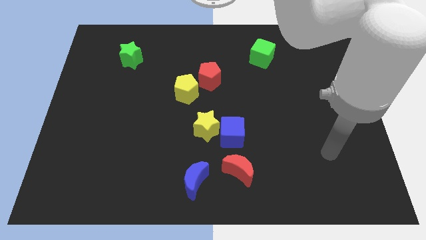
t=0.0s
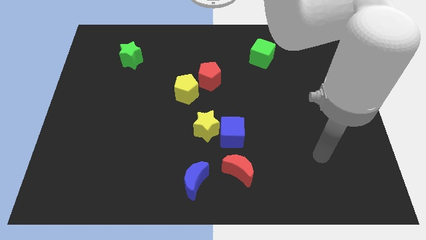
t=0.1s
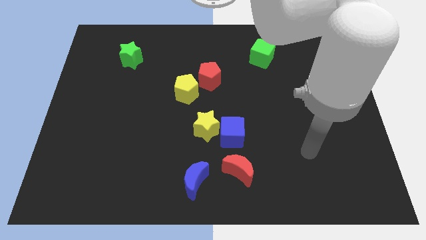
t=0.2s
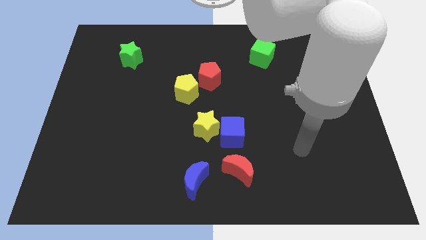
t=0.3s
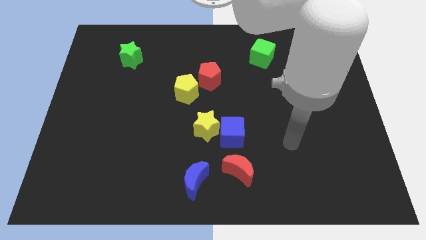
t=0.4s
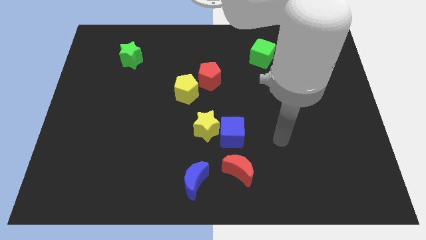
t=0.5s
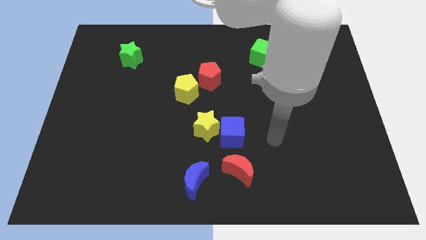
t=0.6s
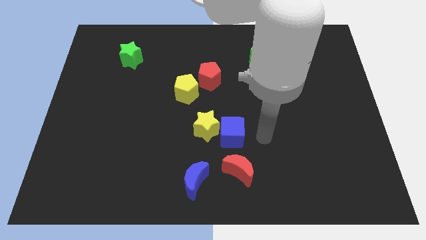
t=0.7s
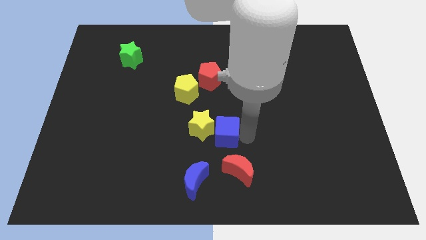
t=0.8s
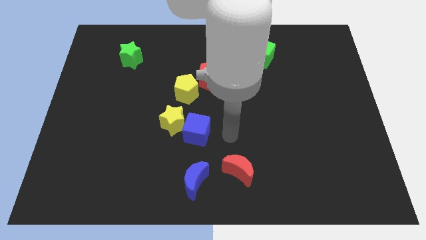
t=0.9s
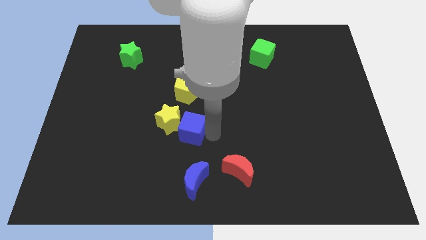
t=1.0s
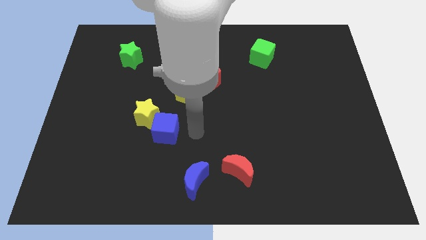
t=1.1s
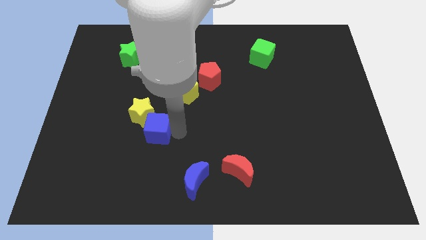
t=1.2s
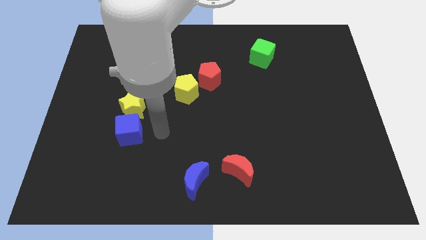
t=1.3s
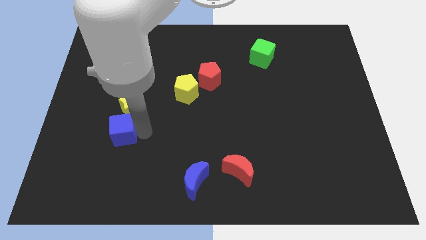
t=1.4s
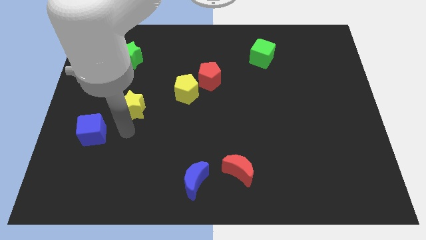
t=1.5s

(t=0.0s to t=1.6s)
move the yellow star away from the blue cube

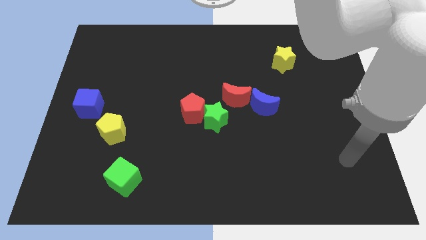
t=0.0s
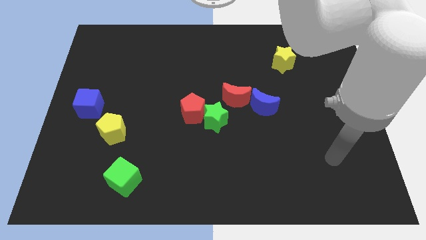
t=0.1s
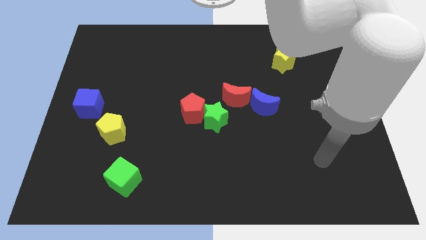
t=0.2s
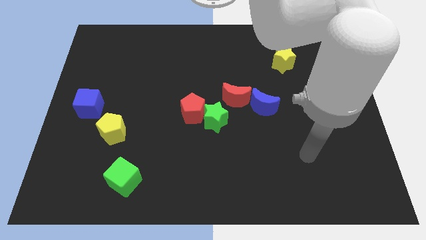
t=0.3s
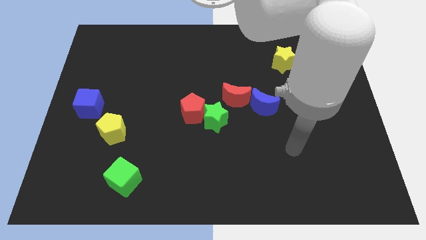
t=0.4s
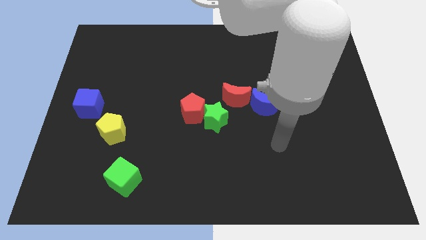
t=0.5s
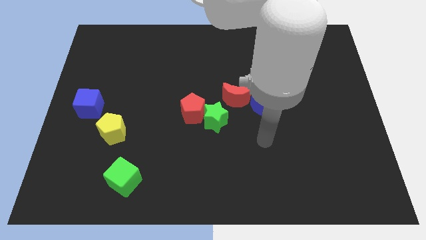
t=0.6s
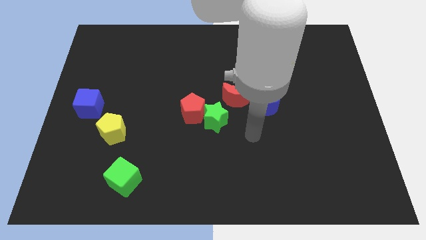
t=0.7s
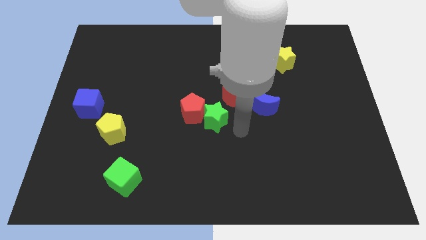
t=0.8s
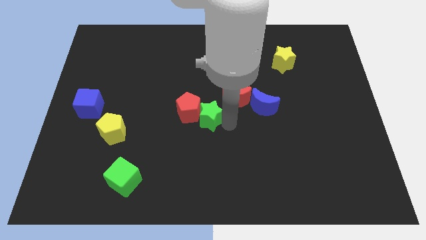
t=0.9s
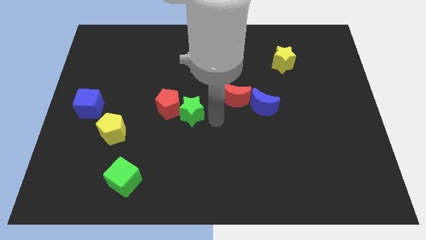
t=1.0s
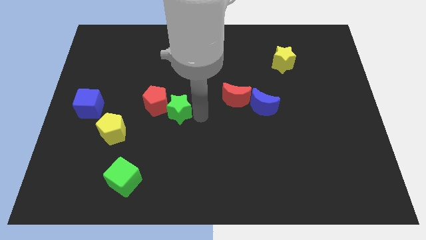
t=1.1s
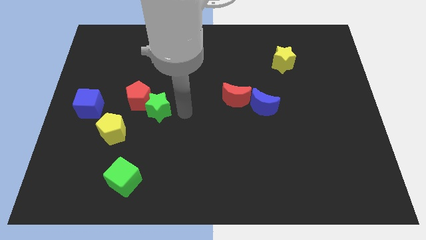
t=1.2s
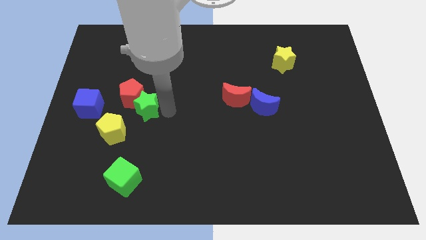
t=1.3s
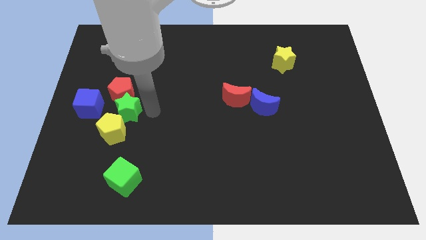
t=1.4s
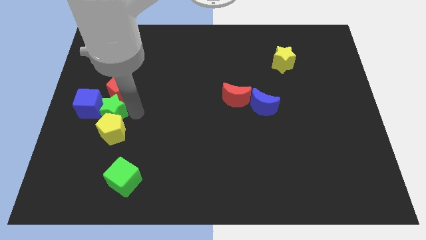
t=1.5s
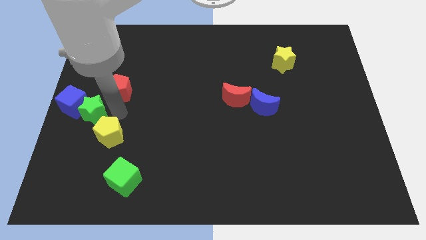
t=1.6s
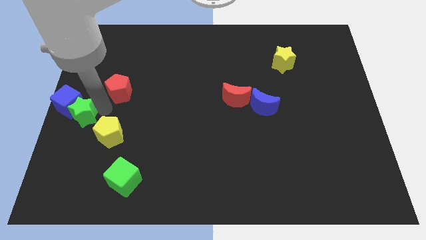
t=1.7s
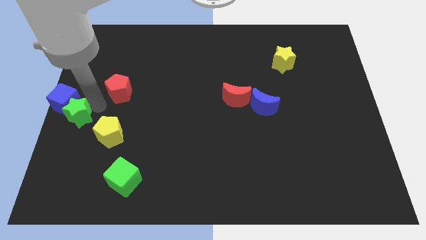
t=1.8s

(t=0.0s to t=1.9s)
move the red pentagon away from the green star

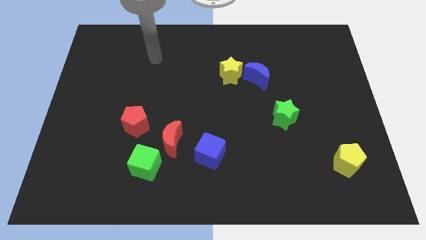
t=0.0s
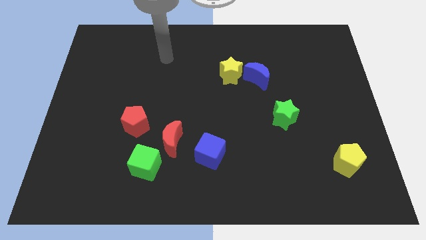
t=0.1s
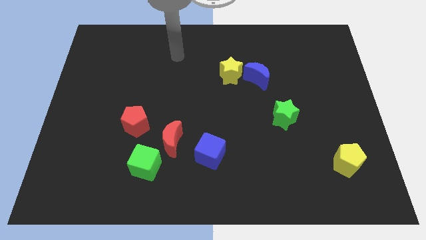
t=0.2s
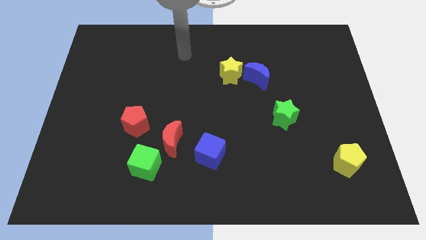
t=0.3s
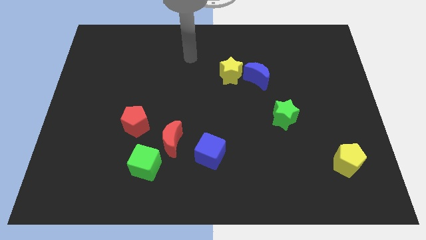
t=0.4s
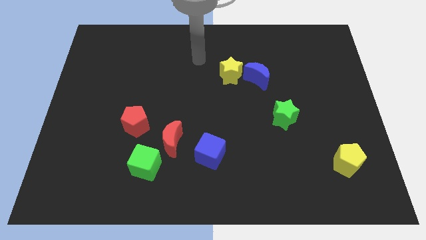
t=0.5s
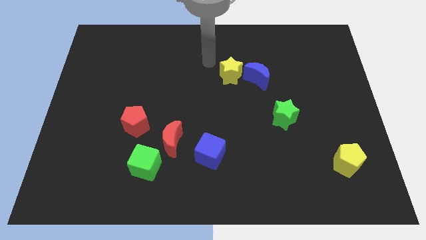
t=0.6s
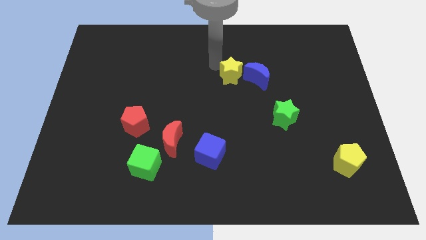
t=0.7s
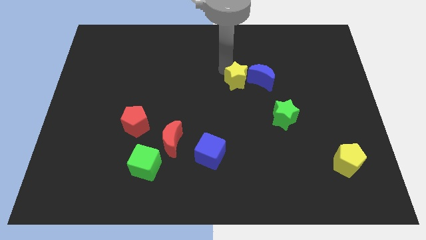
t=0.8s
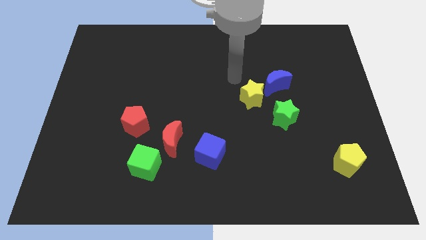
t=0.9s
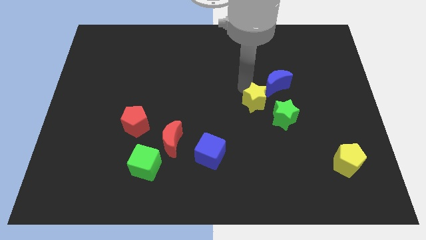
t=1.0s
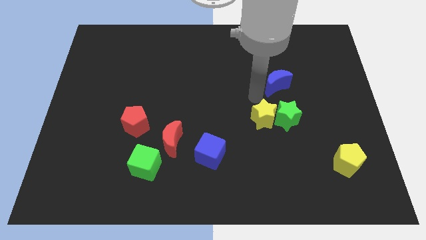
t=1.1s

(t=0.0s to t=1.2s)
move the blue moon away from the yellow star

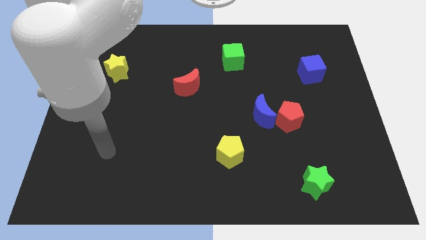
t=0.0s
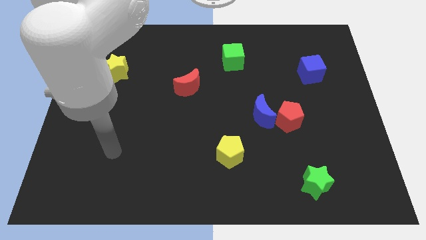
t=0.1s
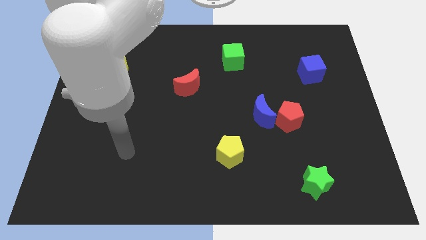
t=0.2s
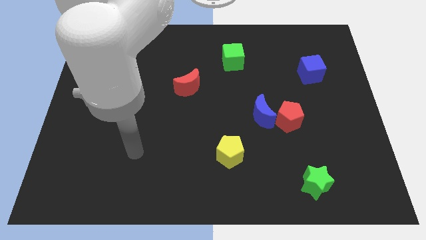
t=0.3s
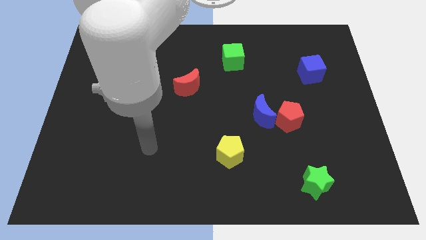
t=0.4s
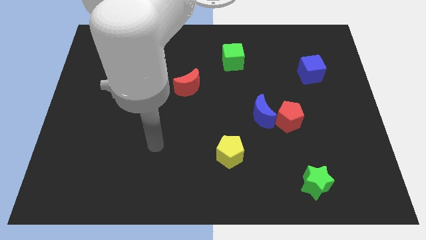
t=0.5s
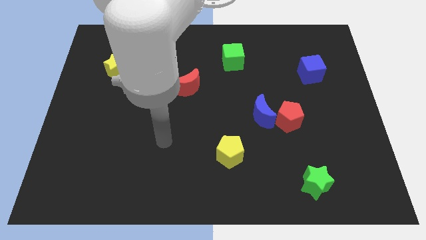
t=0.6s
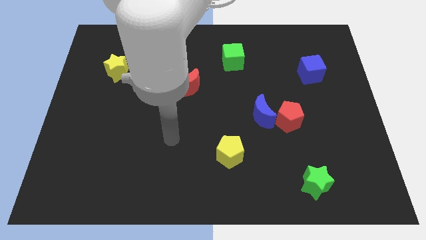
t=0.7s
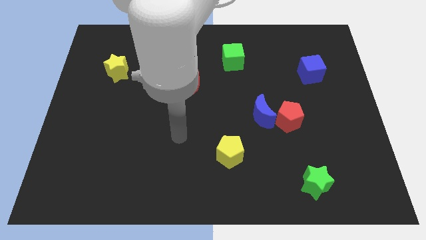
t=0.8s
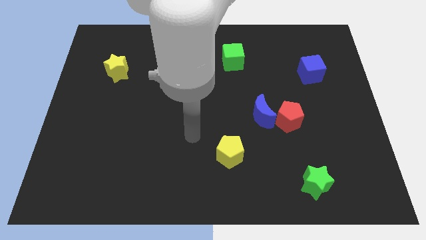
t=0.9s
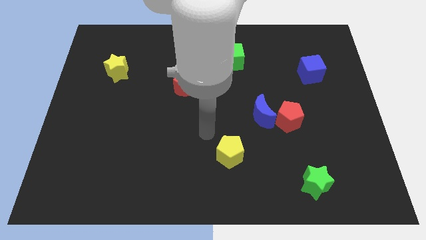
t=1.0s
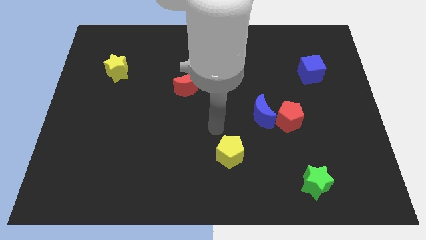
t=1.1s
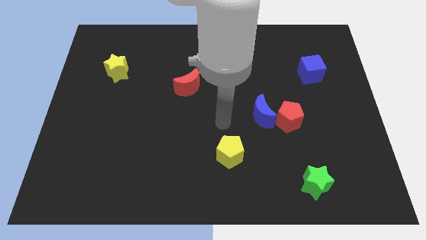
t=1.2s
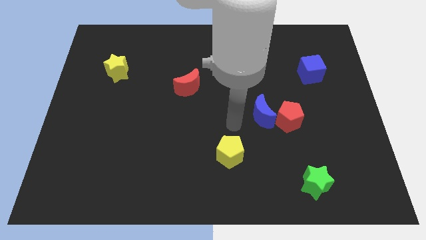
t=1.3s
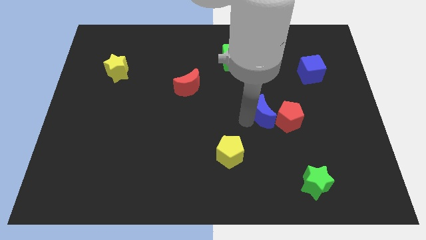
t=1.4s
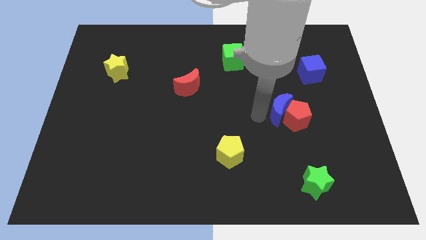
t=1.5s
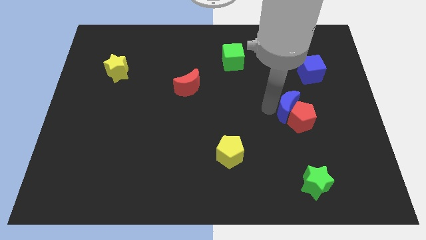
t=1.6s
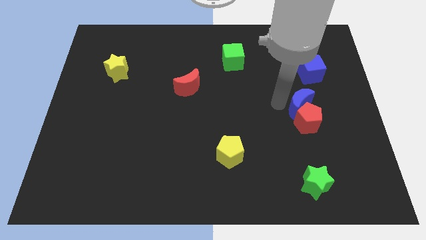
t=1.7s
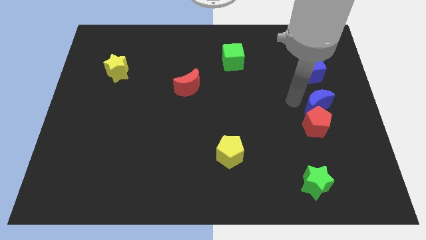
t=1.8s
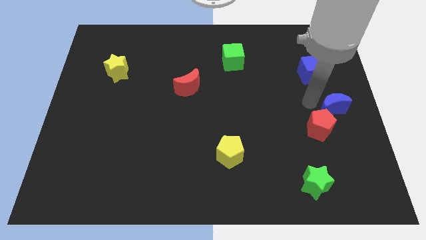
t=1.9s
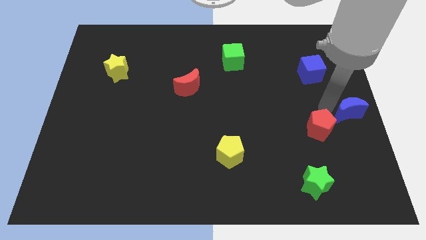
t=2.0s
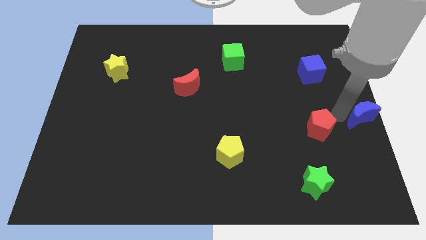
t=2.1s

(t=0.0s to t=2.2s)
pull the red pentagon apart from the blue moon

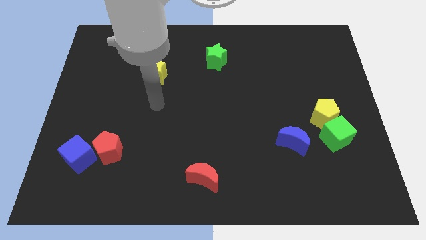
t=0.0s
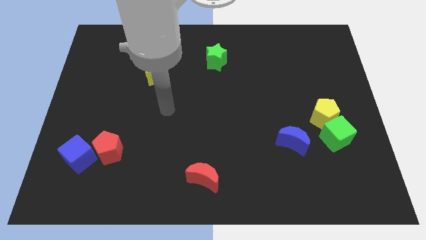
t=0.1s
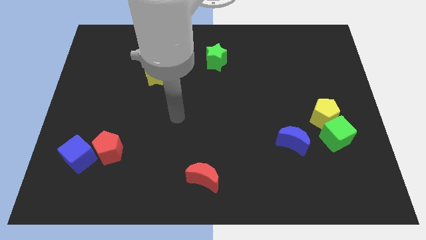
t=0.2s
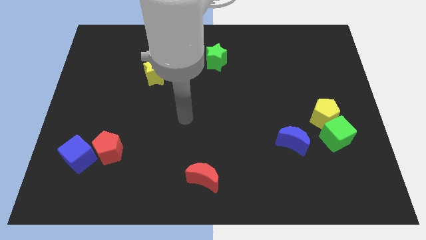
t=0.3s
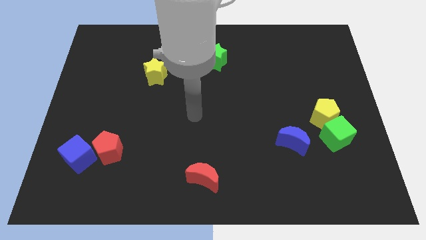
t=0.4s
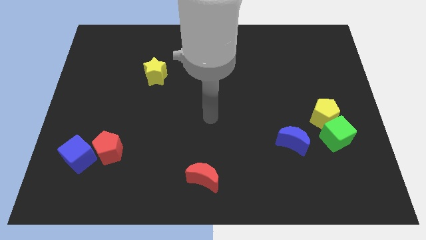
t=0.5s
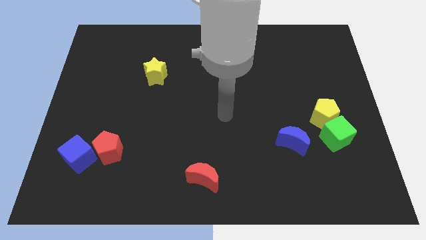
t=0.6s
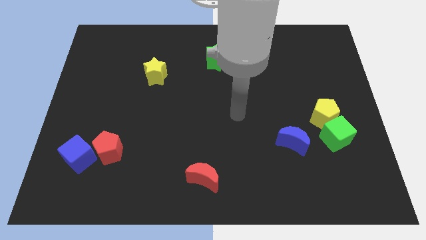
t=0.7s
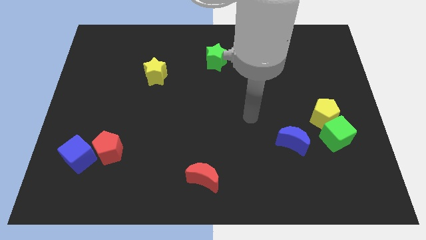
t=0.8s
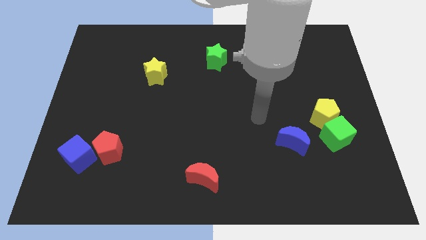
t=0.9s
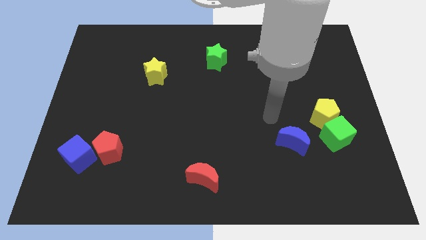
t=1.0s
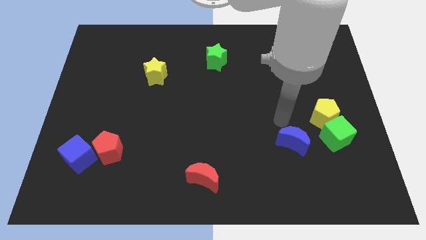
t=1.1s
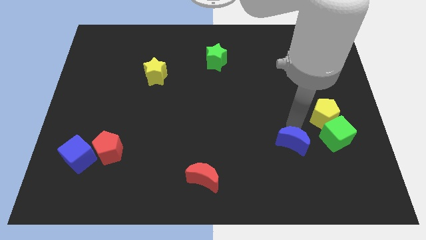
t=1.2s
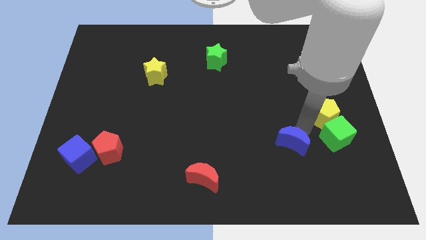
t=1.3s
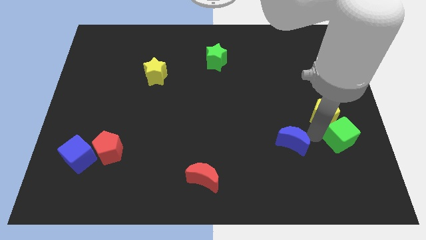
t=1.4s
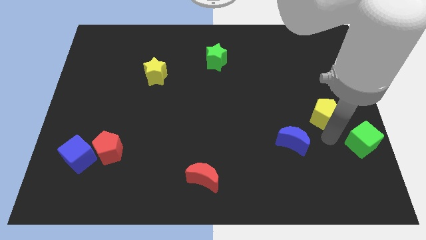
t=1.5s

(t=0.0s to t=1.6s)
move the yellow pentagon away from the green cube

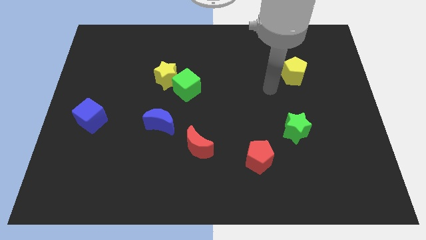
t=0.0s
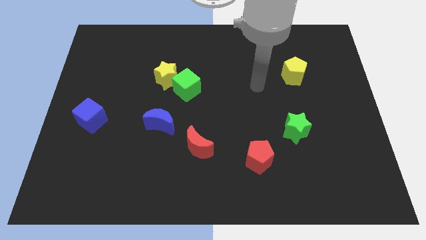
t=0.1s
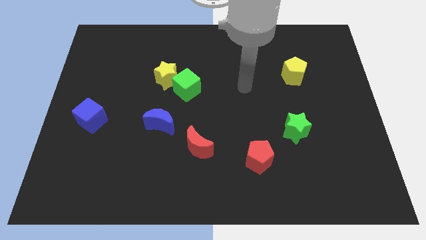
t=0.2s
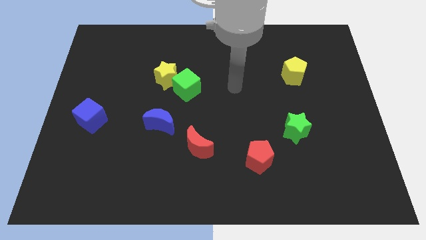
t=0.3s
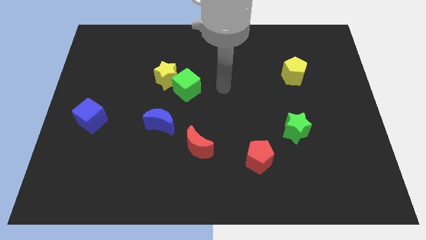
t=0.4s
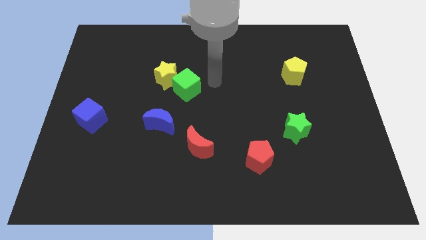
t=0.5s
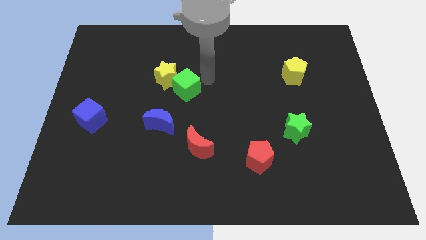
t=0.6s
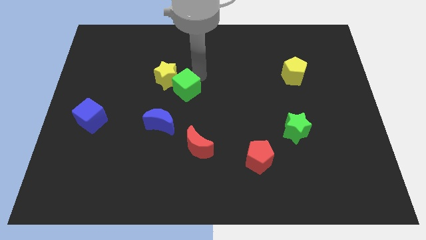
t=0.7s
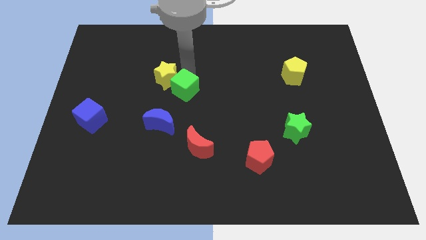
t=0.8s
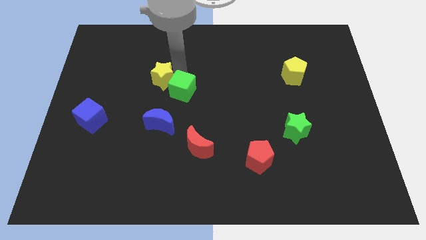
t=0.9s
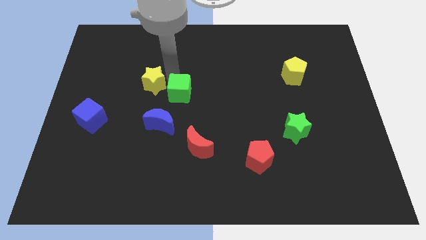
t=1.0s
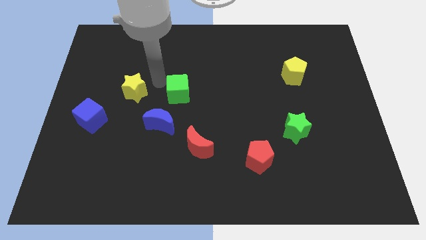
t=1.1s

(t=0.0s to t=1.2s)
move the green cube away from the yellow star
